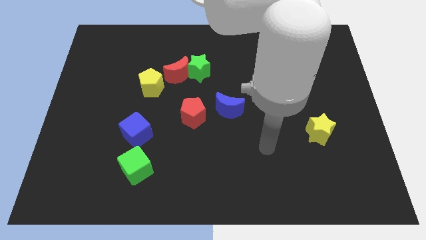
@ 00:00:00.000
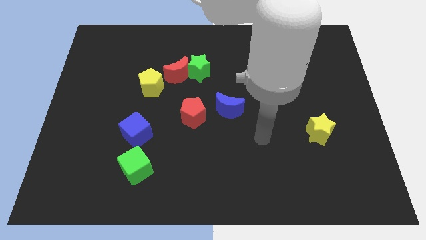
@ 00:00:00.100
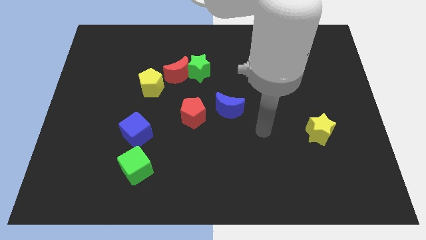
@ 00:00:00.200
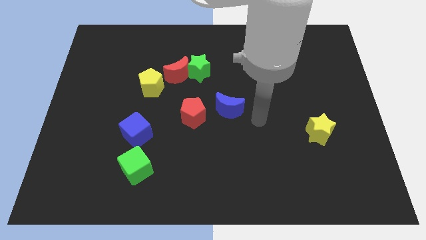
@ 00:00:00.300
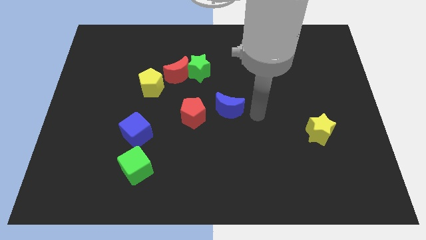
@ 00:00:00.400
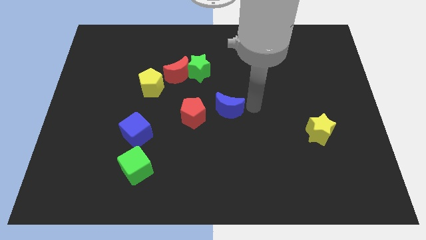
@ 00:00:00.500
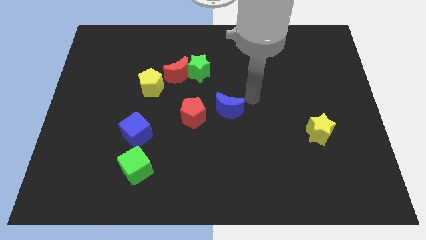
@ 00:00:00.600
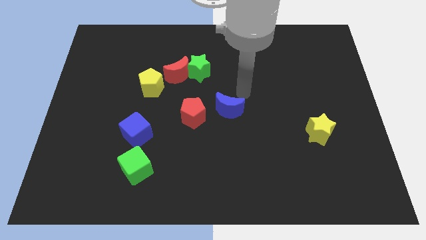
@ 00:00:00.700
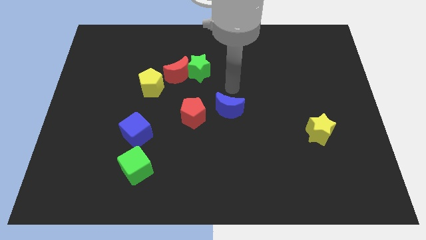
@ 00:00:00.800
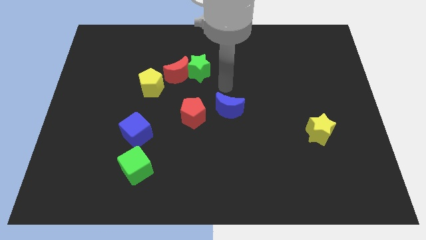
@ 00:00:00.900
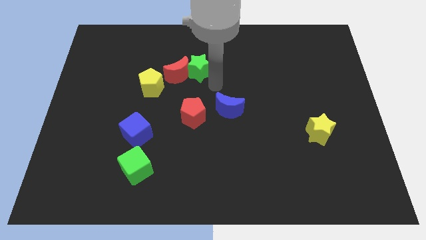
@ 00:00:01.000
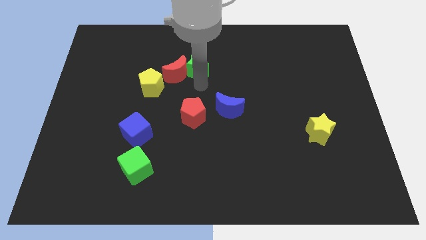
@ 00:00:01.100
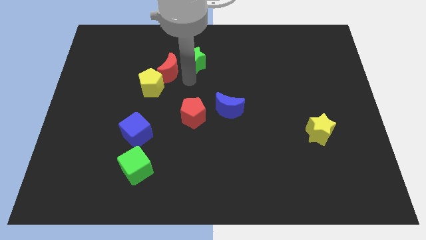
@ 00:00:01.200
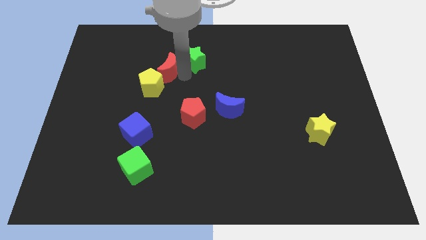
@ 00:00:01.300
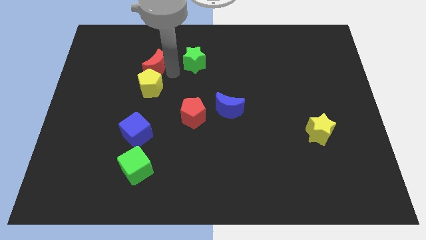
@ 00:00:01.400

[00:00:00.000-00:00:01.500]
move the green star away from the red moon

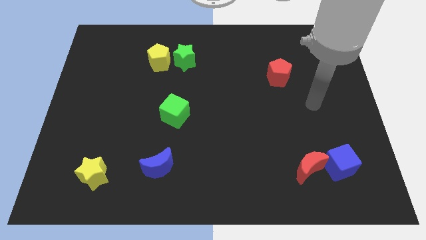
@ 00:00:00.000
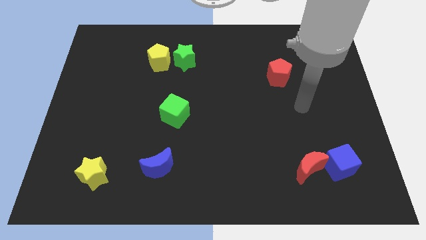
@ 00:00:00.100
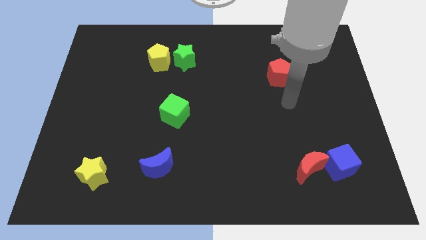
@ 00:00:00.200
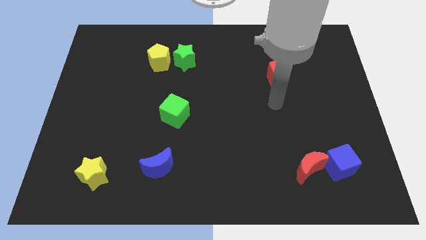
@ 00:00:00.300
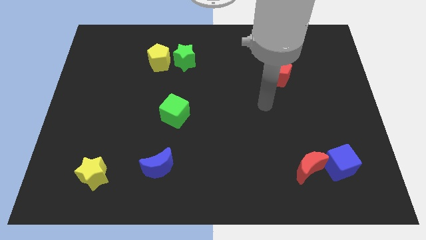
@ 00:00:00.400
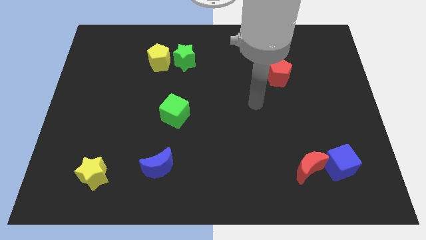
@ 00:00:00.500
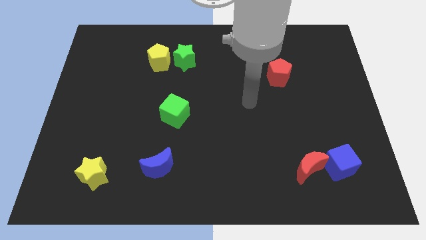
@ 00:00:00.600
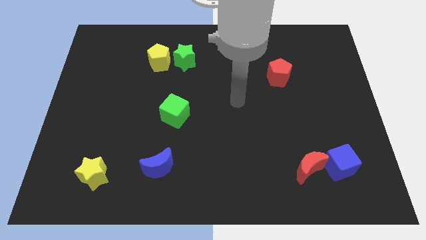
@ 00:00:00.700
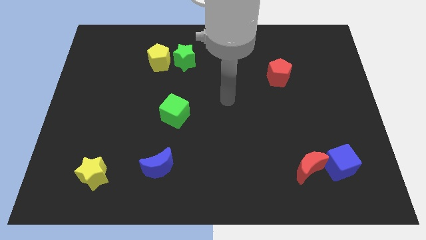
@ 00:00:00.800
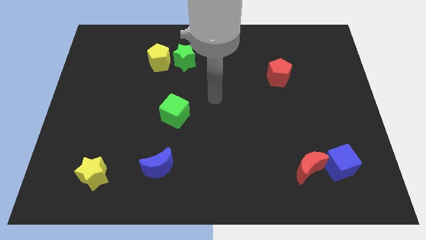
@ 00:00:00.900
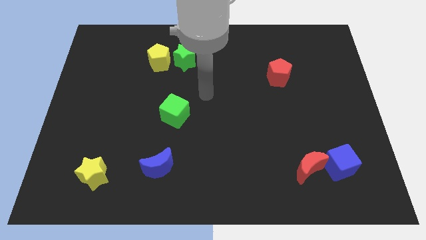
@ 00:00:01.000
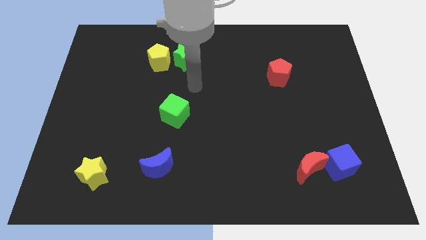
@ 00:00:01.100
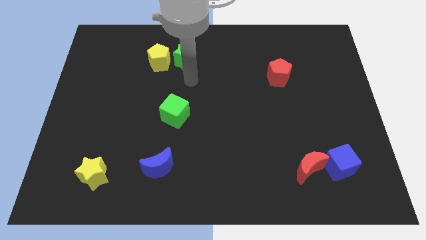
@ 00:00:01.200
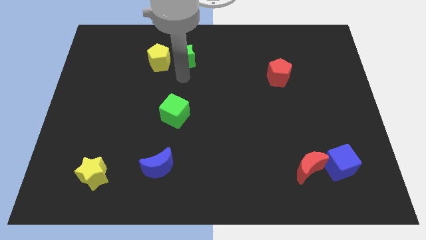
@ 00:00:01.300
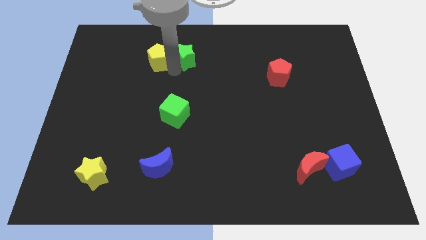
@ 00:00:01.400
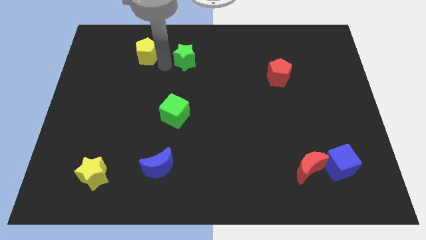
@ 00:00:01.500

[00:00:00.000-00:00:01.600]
move the green star away from the yellow pentagon

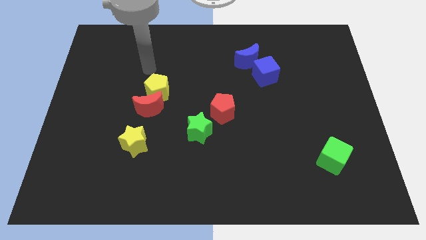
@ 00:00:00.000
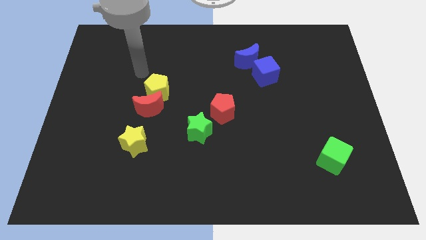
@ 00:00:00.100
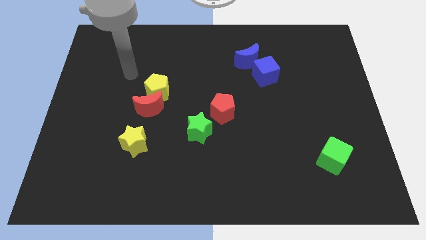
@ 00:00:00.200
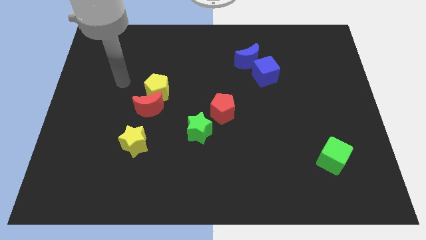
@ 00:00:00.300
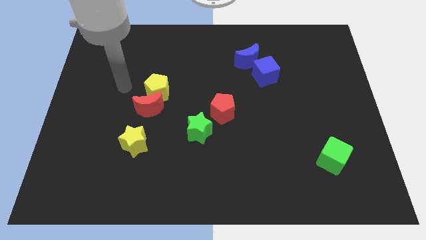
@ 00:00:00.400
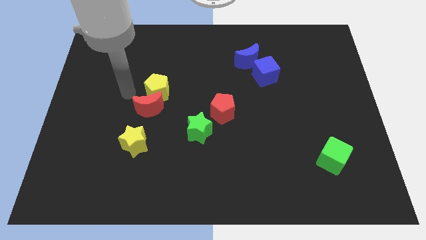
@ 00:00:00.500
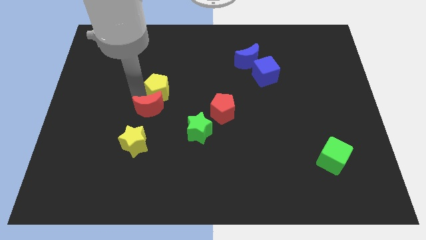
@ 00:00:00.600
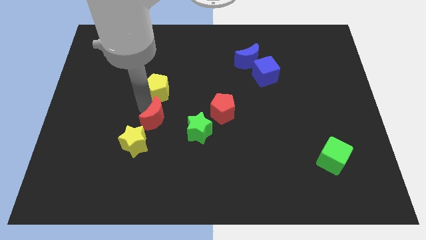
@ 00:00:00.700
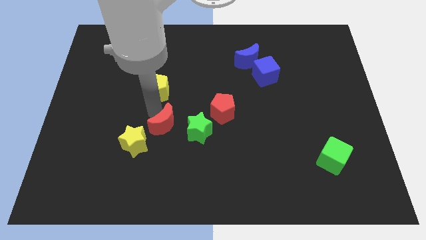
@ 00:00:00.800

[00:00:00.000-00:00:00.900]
move the yellow pentagon away from the red moon

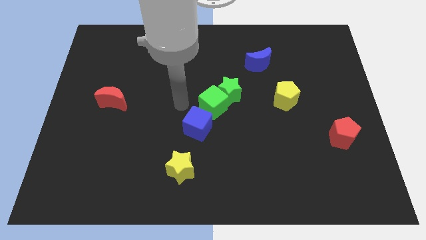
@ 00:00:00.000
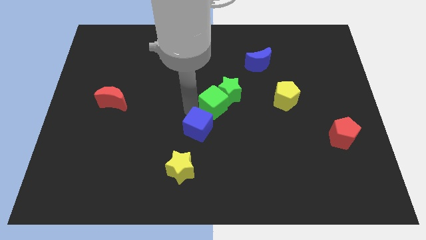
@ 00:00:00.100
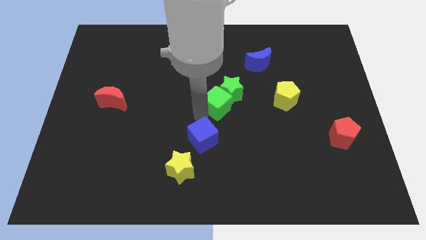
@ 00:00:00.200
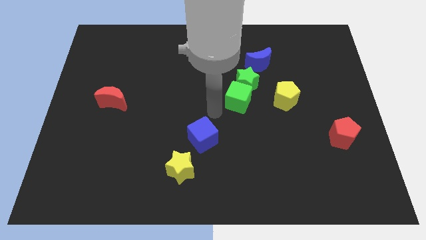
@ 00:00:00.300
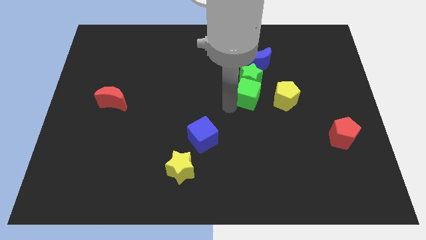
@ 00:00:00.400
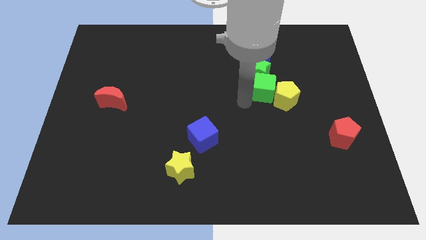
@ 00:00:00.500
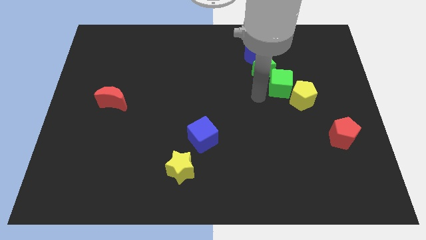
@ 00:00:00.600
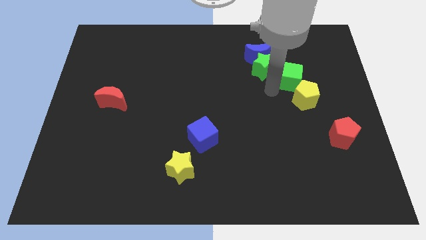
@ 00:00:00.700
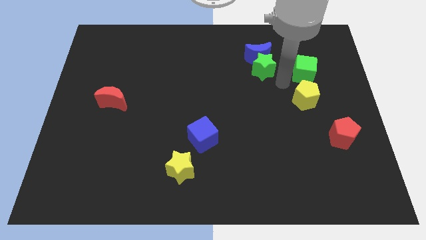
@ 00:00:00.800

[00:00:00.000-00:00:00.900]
separate the green star from the green cube

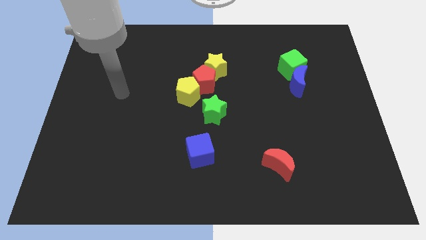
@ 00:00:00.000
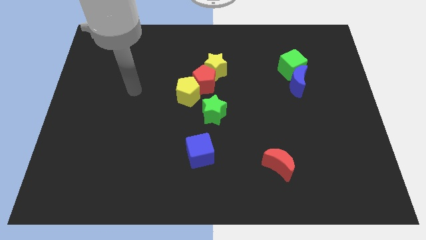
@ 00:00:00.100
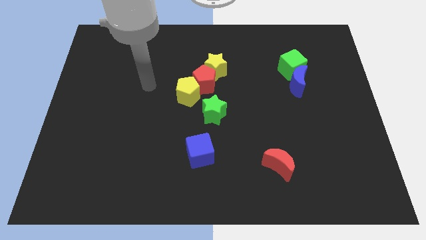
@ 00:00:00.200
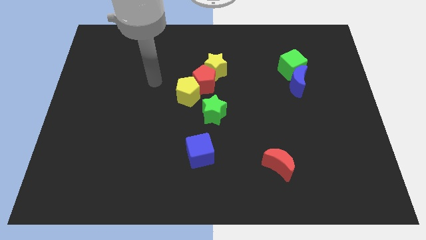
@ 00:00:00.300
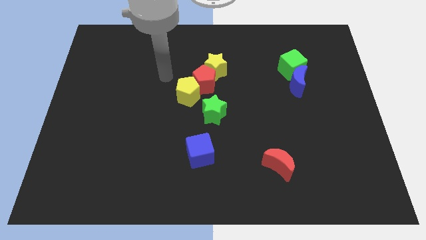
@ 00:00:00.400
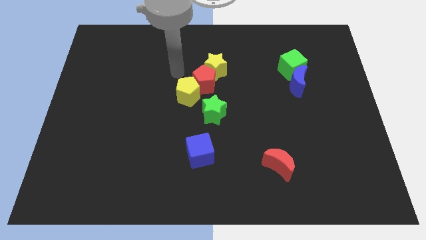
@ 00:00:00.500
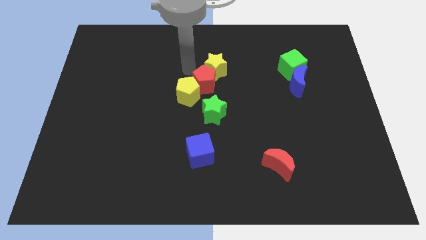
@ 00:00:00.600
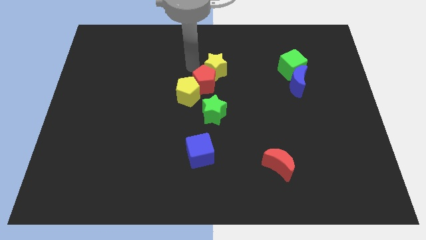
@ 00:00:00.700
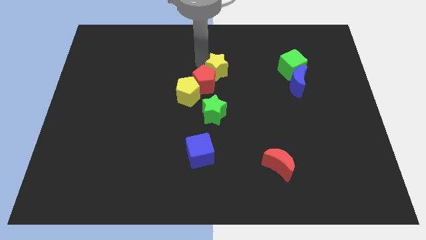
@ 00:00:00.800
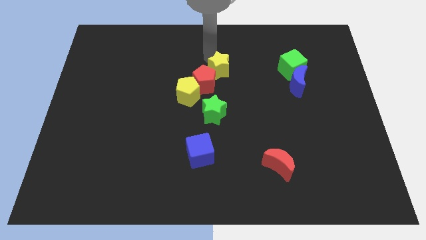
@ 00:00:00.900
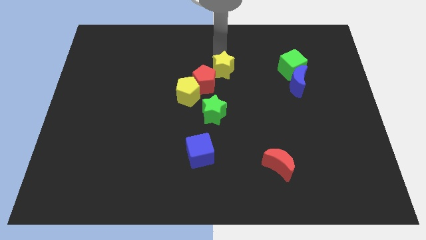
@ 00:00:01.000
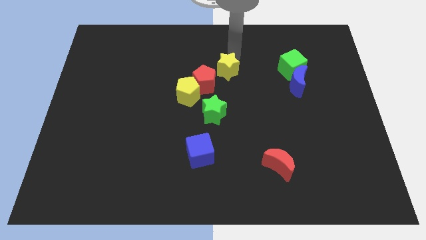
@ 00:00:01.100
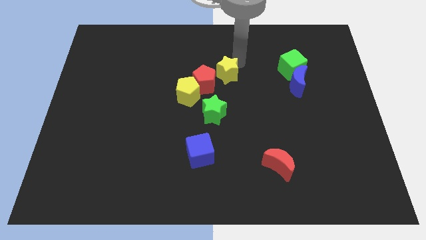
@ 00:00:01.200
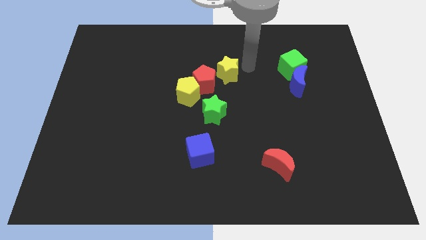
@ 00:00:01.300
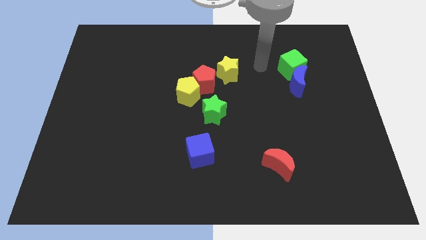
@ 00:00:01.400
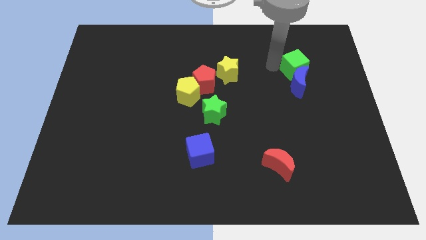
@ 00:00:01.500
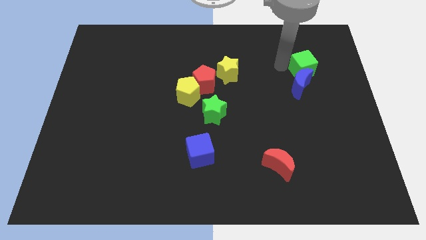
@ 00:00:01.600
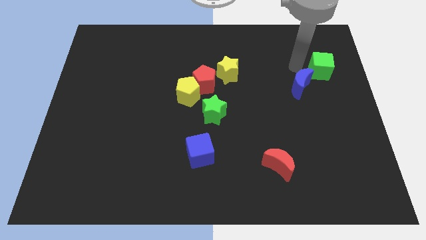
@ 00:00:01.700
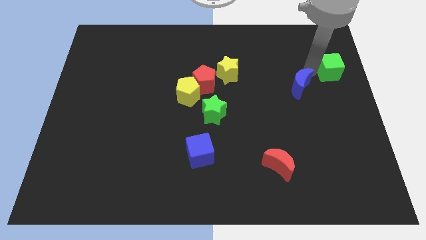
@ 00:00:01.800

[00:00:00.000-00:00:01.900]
move the blue moon away from the green cube

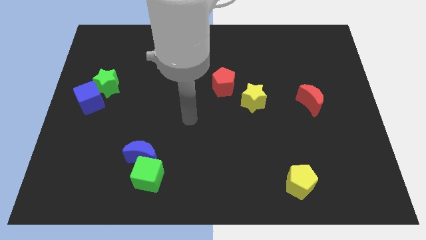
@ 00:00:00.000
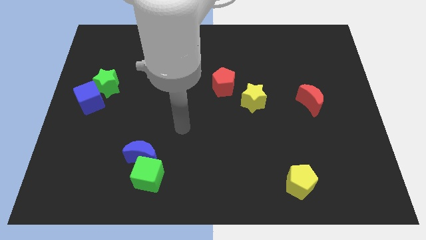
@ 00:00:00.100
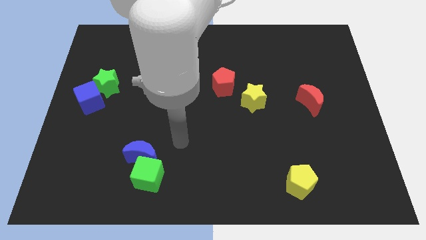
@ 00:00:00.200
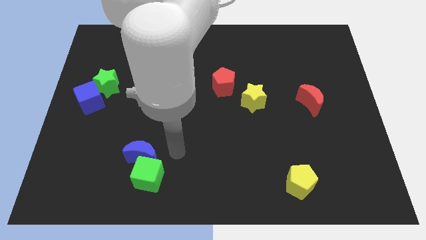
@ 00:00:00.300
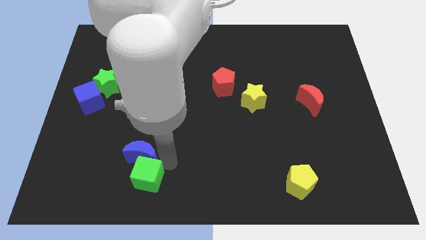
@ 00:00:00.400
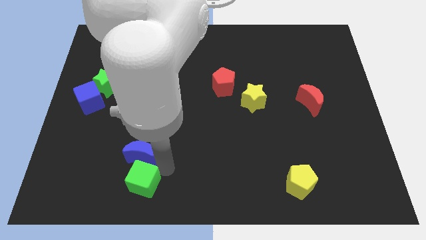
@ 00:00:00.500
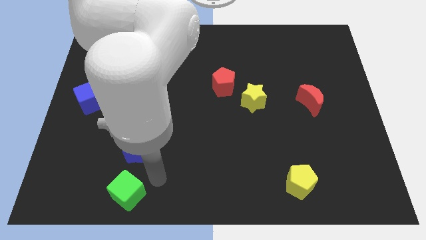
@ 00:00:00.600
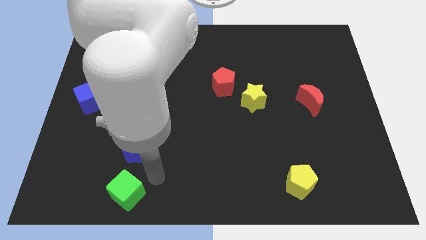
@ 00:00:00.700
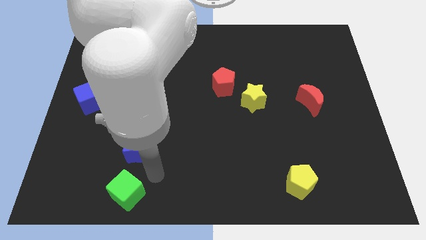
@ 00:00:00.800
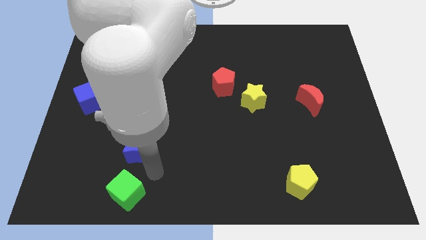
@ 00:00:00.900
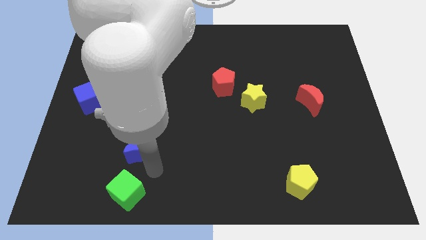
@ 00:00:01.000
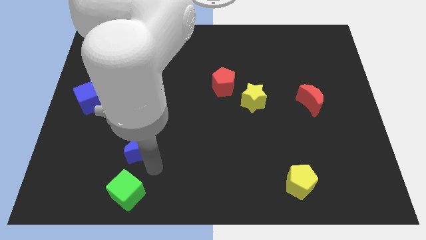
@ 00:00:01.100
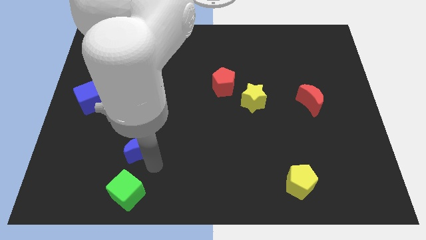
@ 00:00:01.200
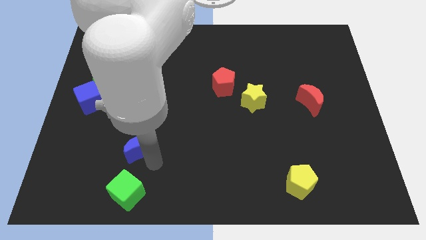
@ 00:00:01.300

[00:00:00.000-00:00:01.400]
separate the blue moon from the green cube

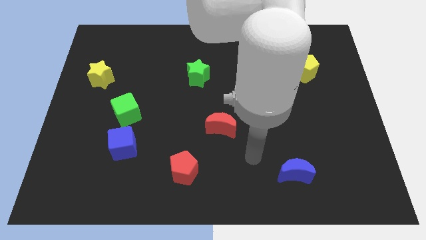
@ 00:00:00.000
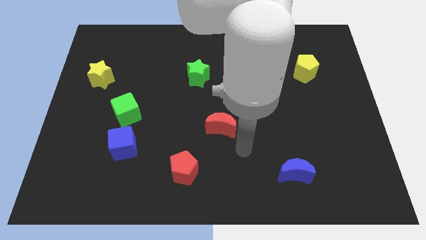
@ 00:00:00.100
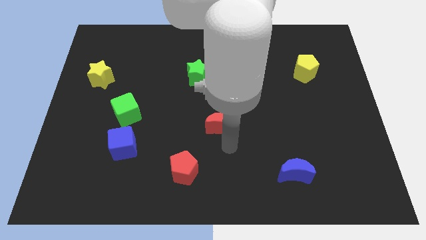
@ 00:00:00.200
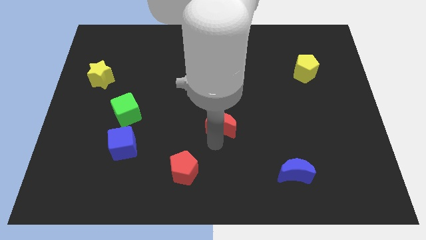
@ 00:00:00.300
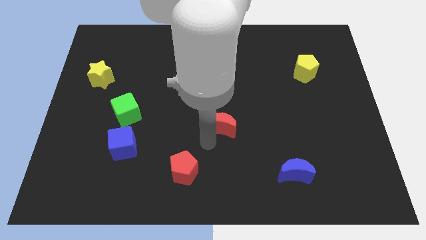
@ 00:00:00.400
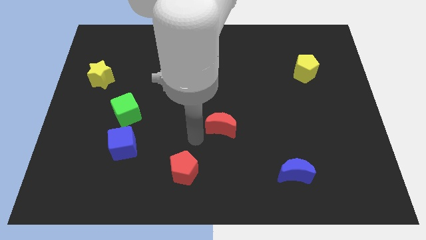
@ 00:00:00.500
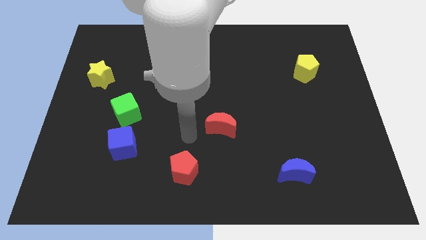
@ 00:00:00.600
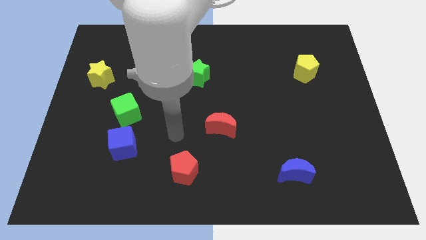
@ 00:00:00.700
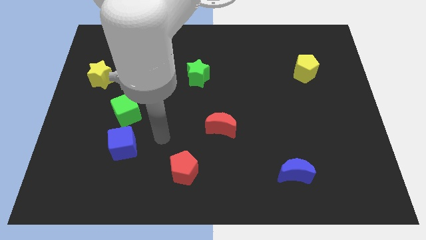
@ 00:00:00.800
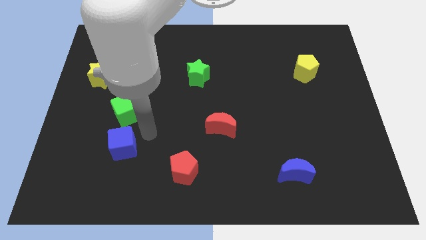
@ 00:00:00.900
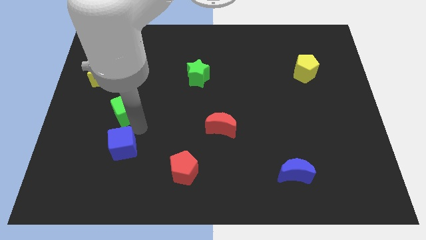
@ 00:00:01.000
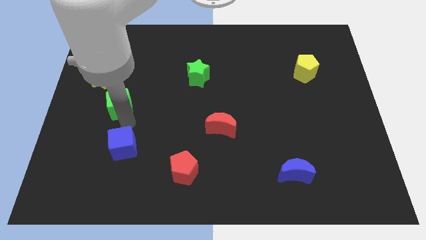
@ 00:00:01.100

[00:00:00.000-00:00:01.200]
pull the blue cube apart from the green cube
